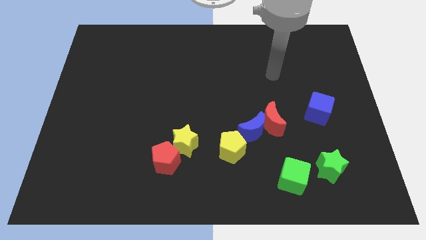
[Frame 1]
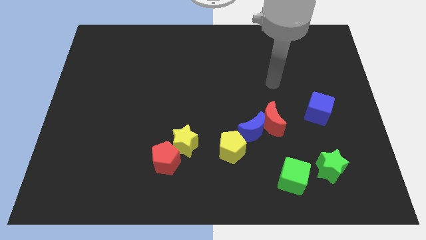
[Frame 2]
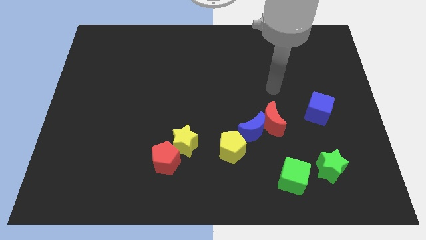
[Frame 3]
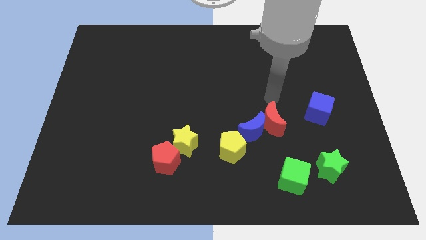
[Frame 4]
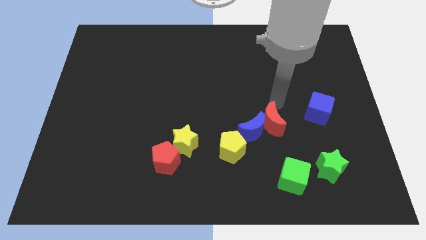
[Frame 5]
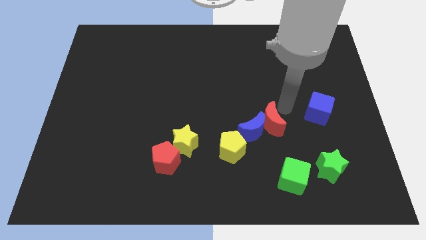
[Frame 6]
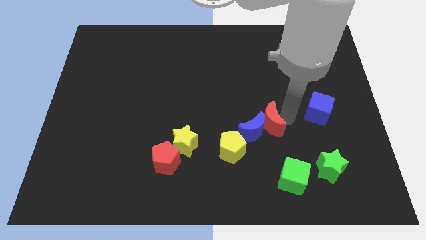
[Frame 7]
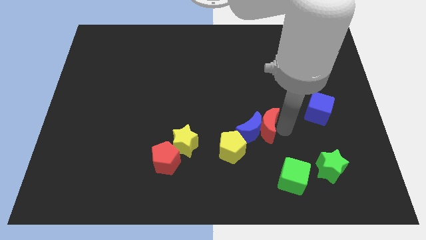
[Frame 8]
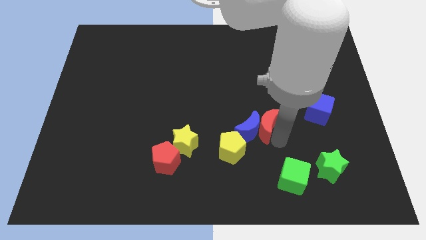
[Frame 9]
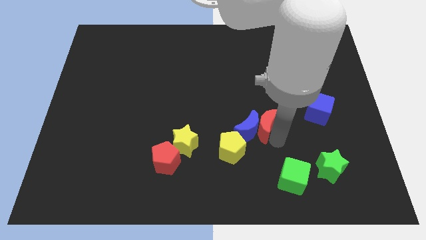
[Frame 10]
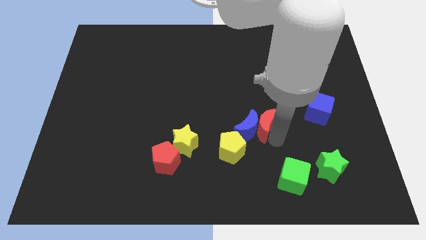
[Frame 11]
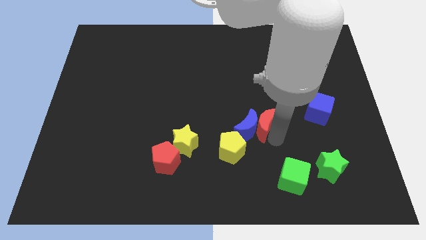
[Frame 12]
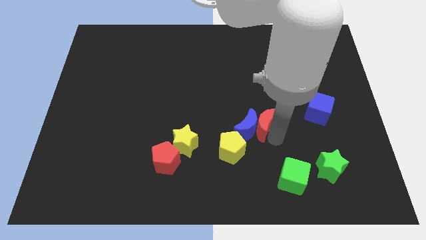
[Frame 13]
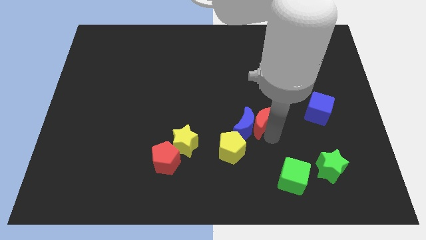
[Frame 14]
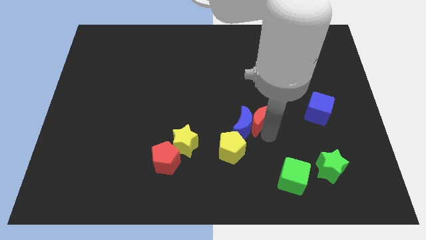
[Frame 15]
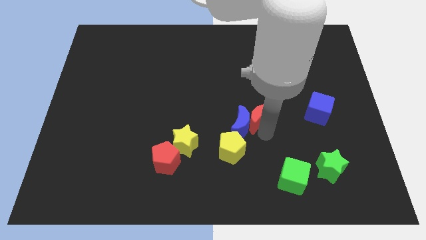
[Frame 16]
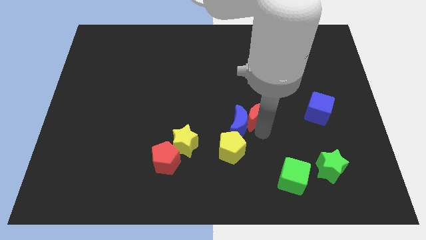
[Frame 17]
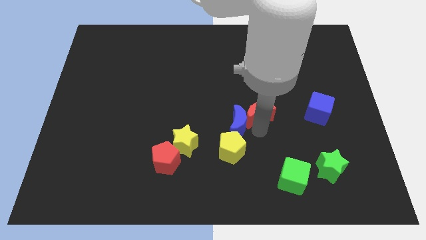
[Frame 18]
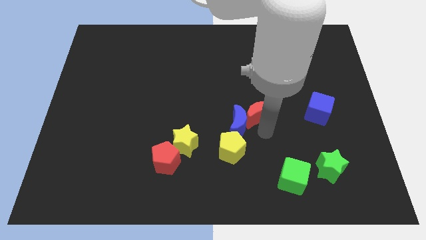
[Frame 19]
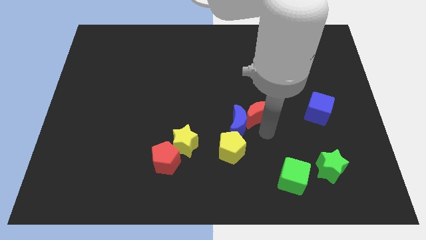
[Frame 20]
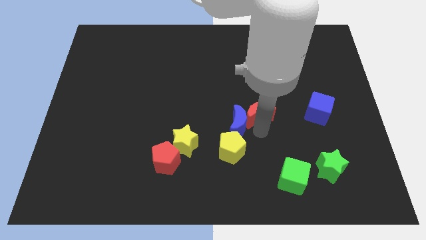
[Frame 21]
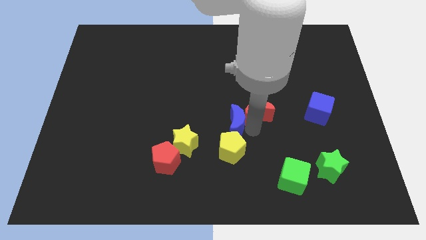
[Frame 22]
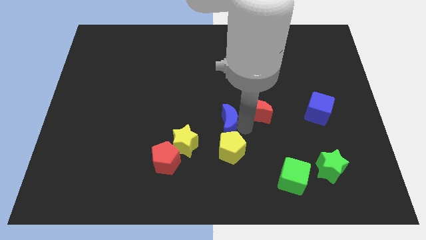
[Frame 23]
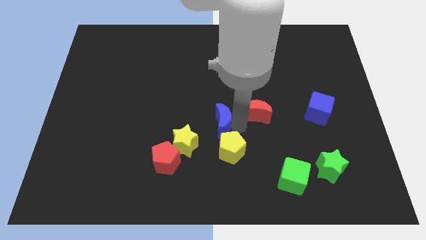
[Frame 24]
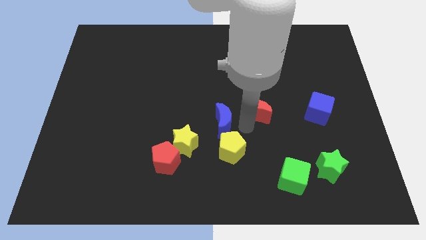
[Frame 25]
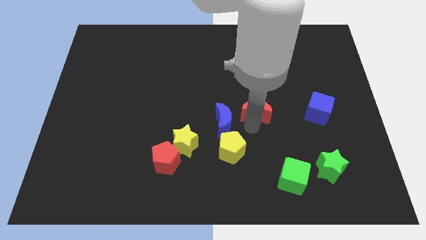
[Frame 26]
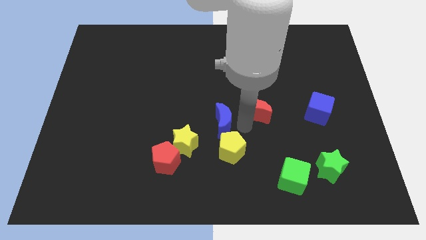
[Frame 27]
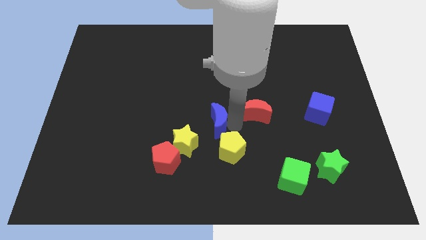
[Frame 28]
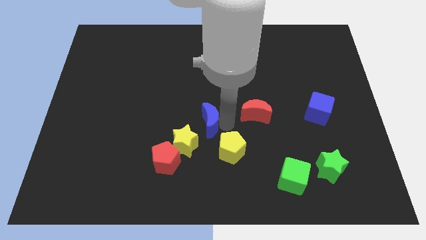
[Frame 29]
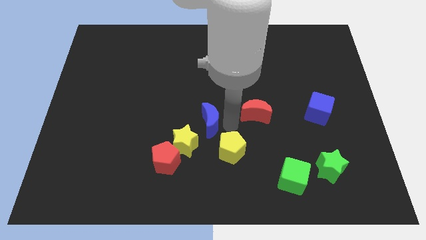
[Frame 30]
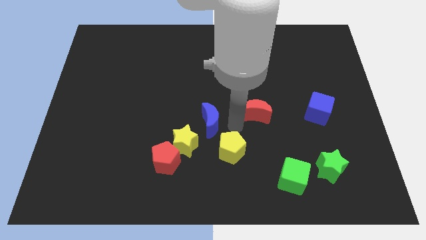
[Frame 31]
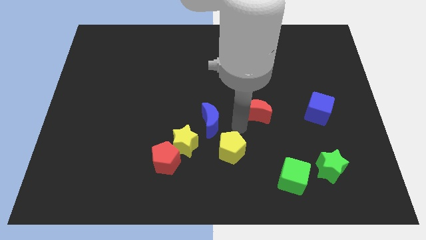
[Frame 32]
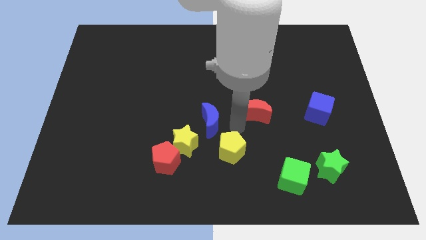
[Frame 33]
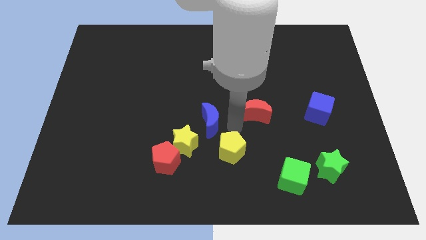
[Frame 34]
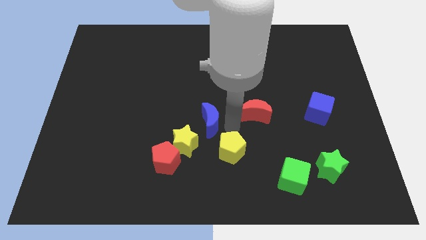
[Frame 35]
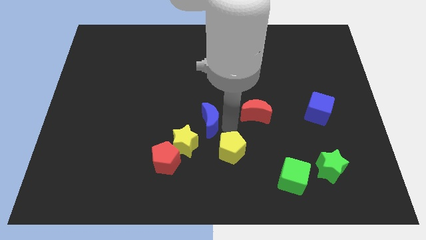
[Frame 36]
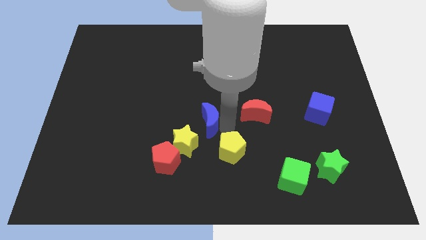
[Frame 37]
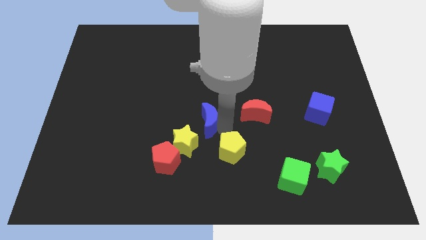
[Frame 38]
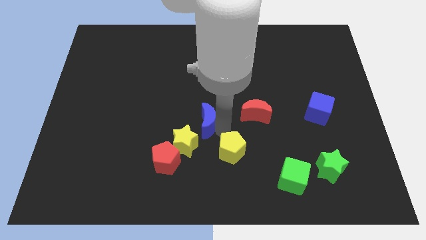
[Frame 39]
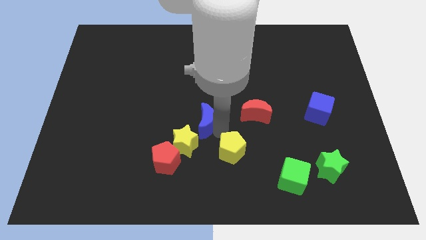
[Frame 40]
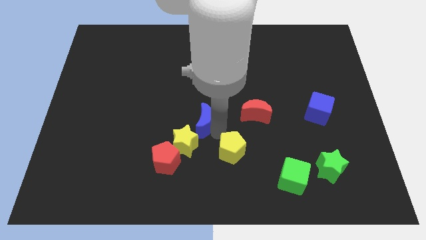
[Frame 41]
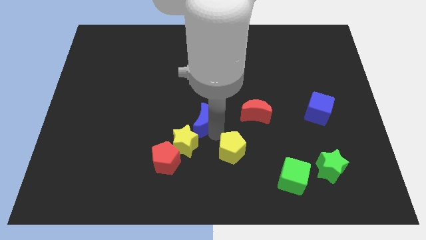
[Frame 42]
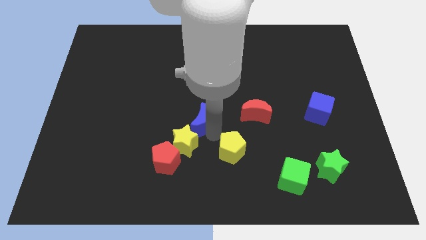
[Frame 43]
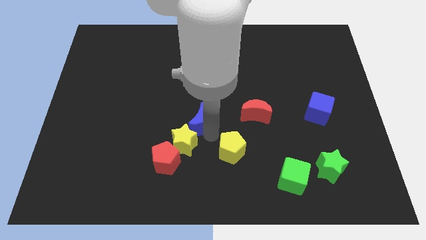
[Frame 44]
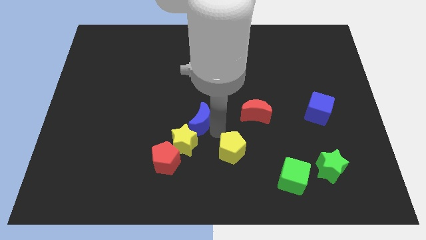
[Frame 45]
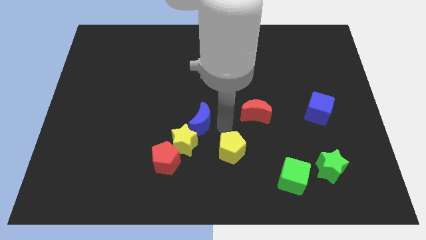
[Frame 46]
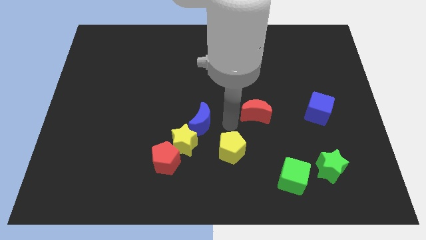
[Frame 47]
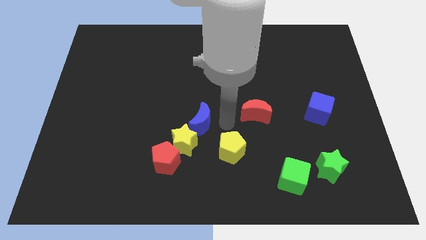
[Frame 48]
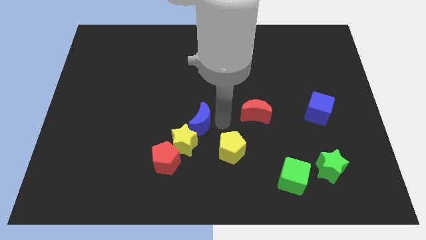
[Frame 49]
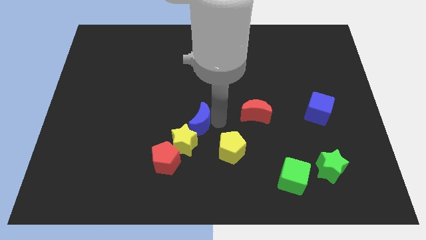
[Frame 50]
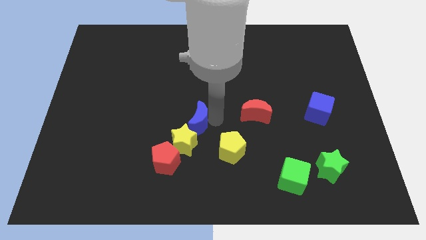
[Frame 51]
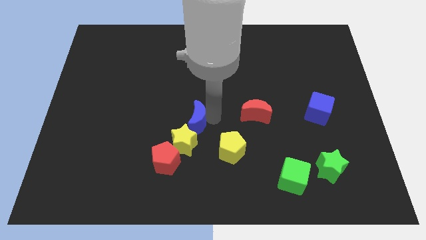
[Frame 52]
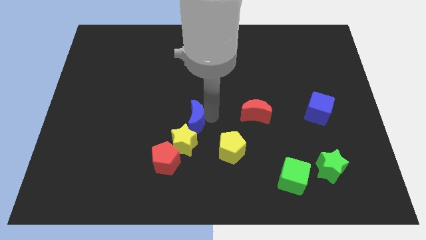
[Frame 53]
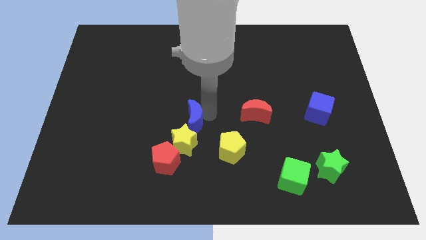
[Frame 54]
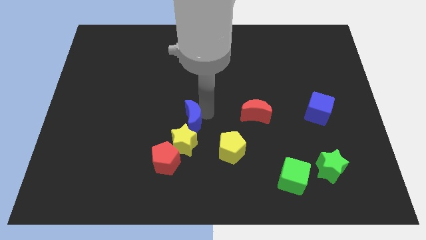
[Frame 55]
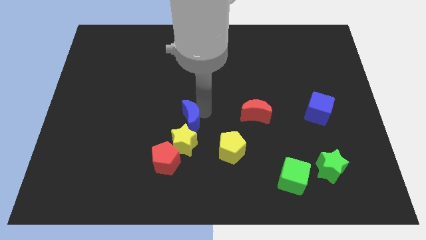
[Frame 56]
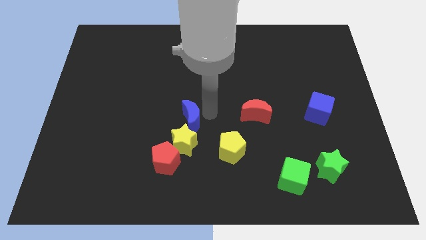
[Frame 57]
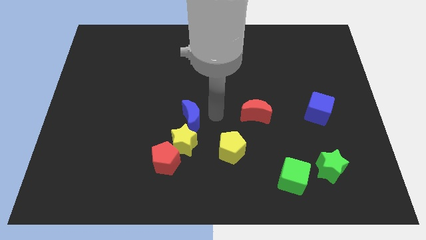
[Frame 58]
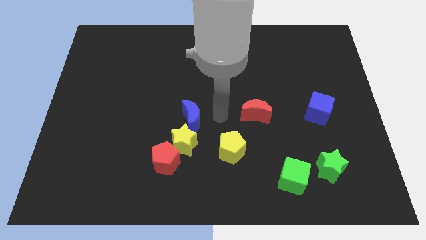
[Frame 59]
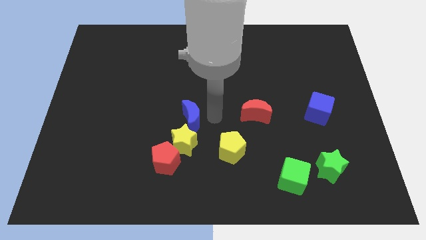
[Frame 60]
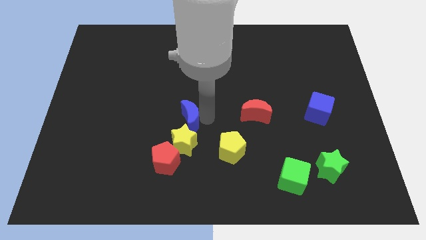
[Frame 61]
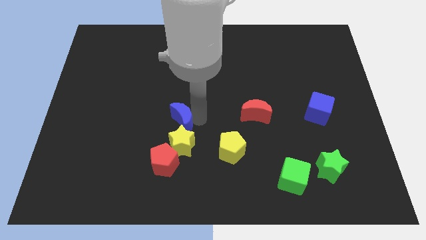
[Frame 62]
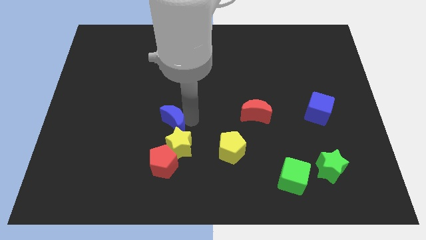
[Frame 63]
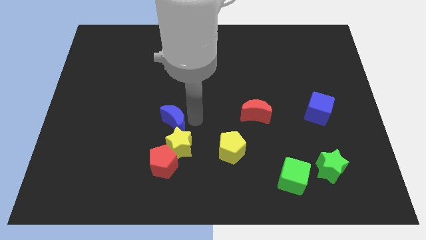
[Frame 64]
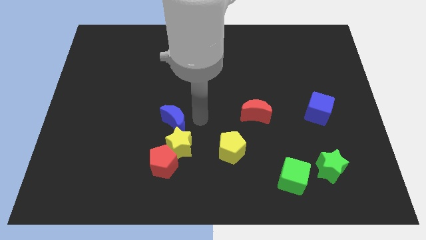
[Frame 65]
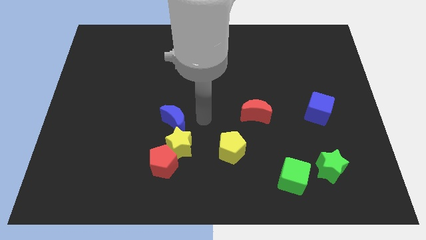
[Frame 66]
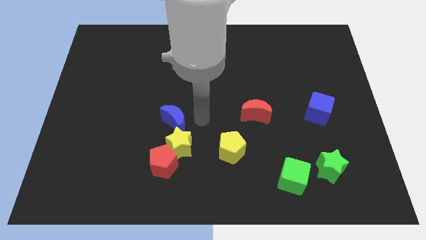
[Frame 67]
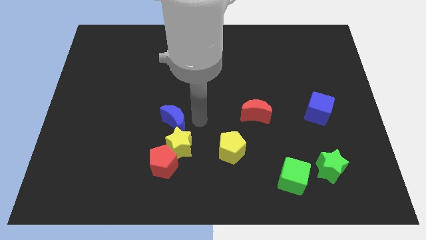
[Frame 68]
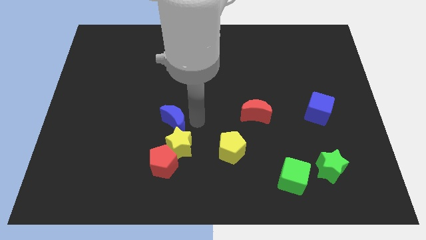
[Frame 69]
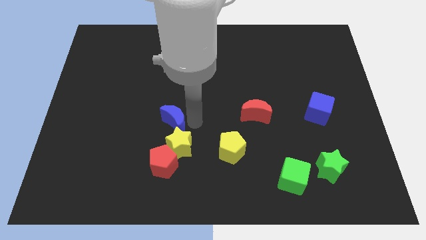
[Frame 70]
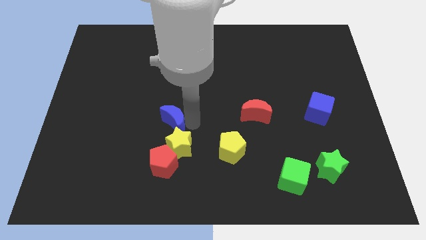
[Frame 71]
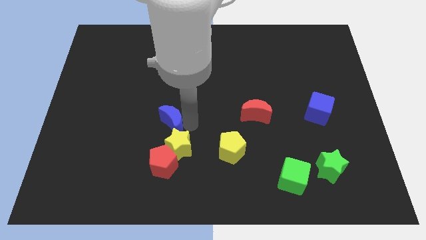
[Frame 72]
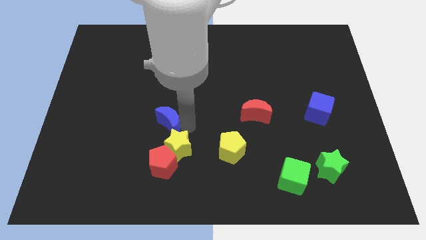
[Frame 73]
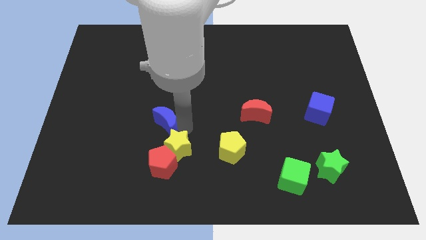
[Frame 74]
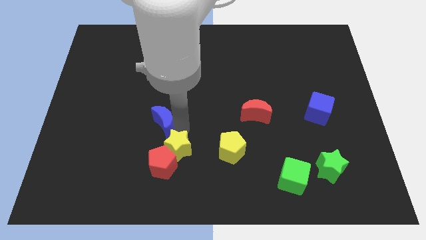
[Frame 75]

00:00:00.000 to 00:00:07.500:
push the blue moon left

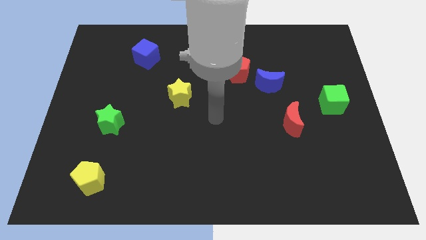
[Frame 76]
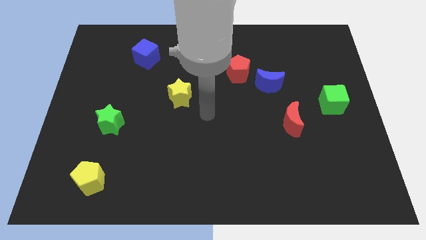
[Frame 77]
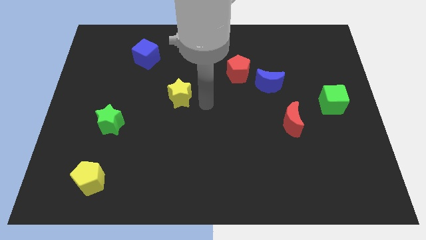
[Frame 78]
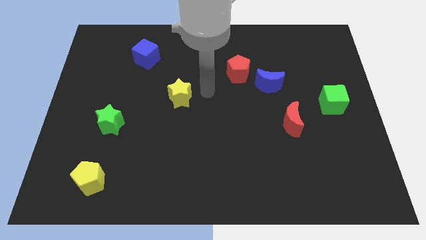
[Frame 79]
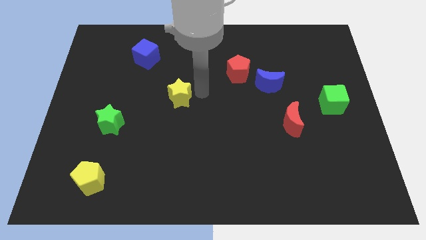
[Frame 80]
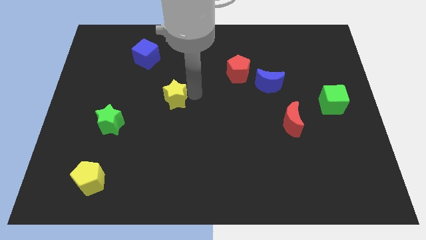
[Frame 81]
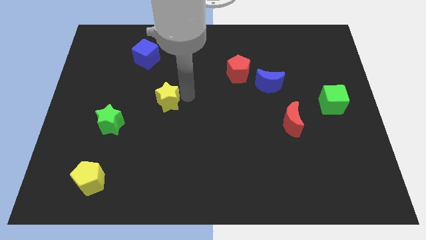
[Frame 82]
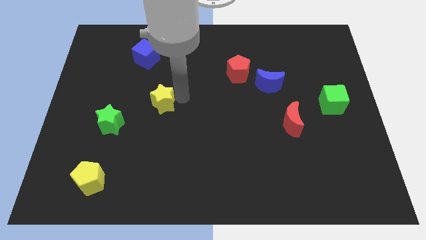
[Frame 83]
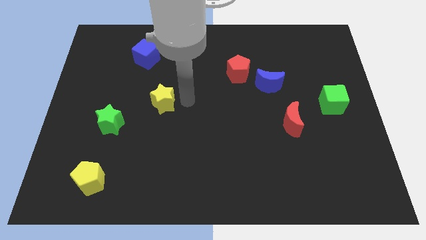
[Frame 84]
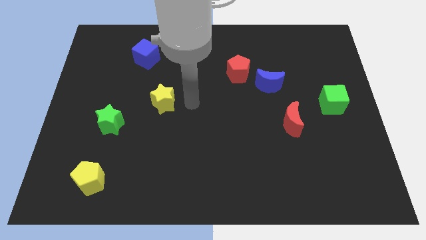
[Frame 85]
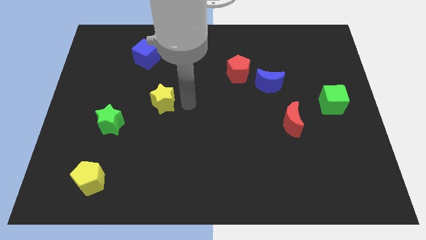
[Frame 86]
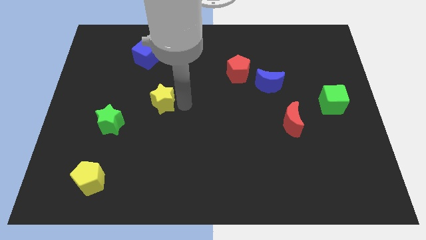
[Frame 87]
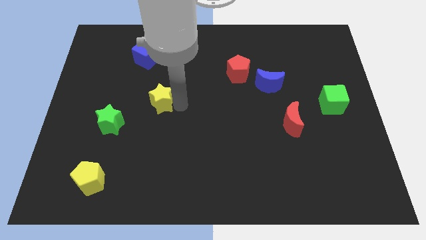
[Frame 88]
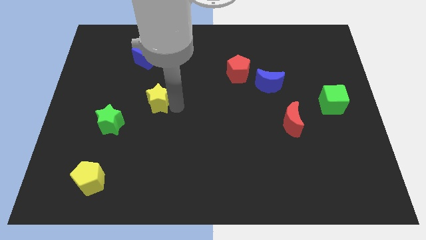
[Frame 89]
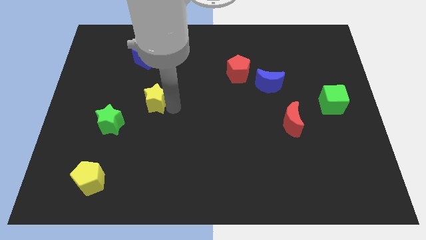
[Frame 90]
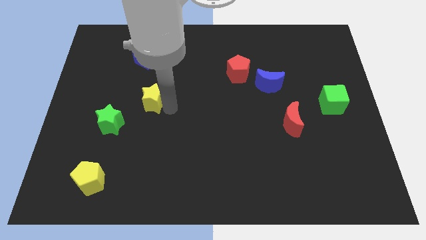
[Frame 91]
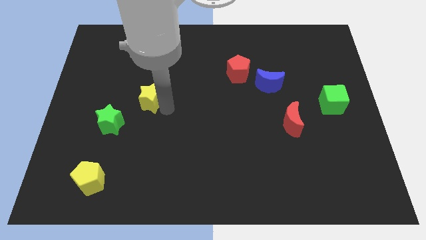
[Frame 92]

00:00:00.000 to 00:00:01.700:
slightly push the yellow star left
